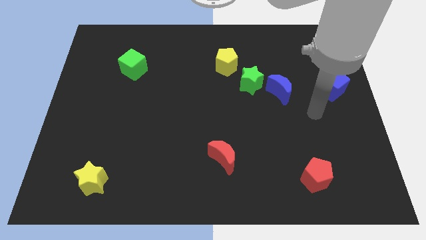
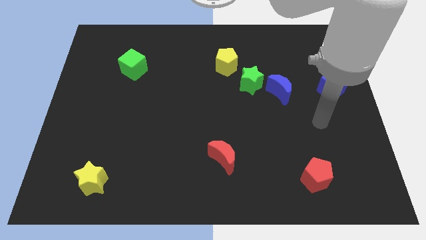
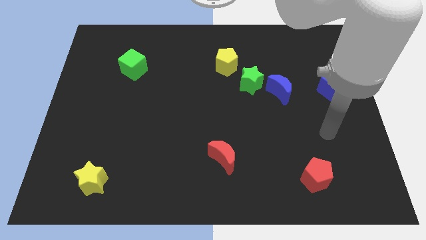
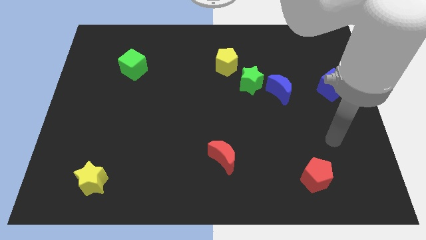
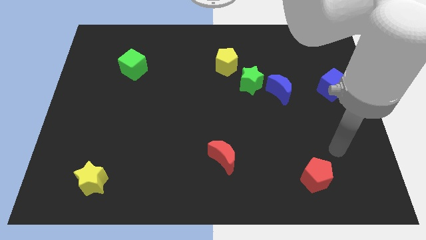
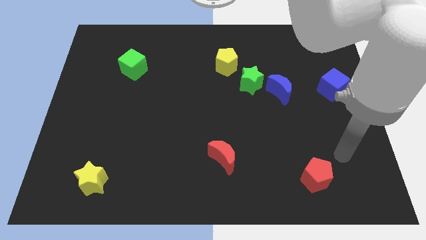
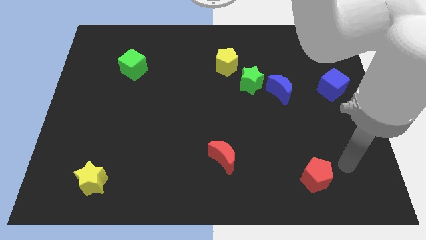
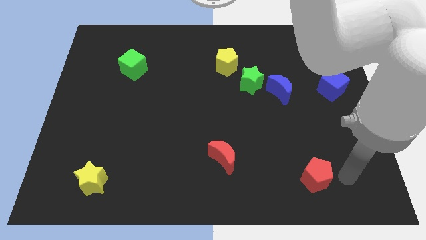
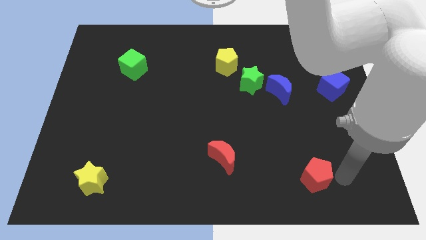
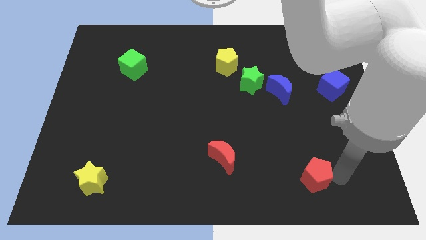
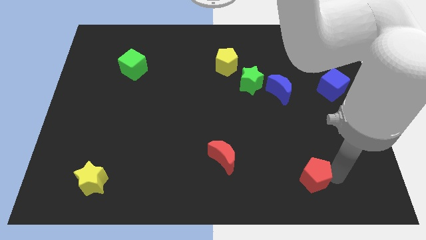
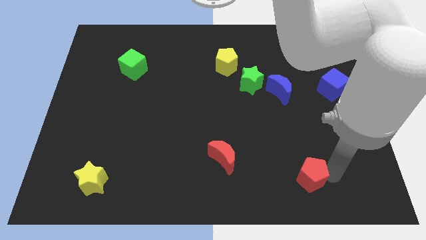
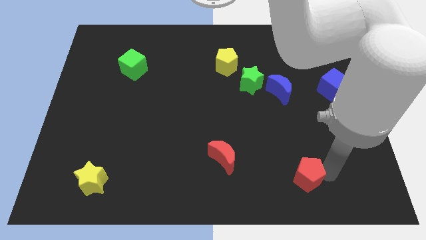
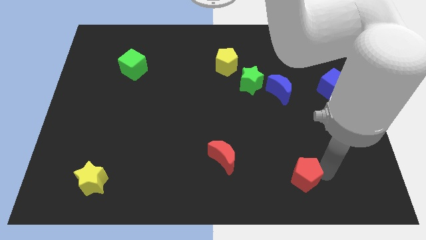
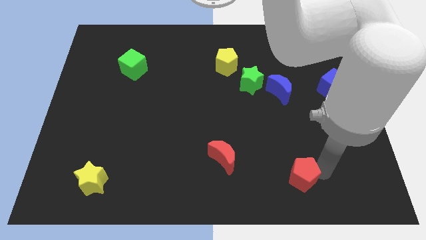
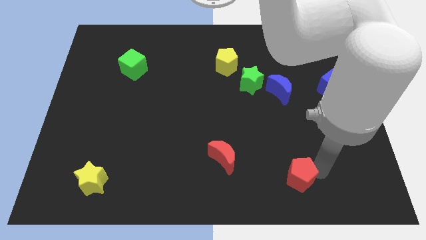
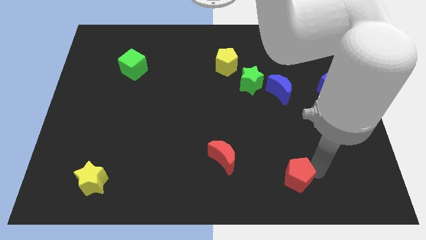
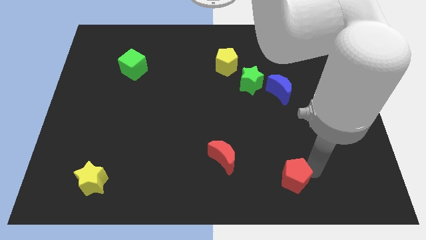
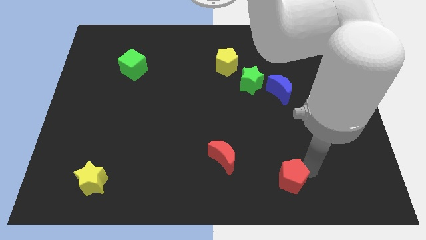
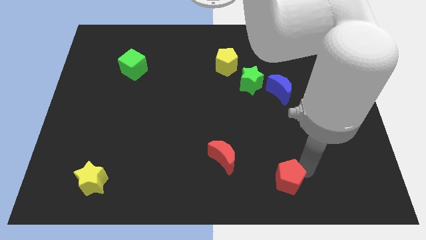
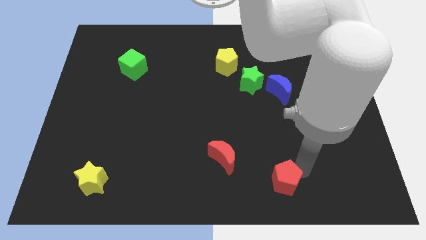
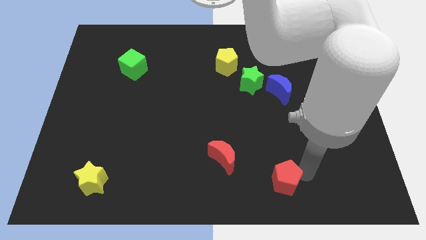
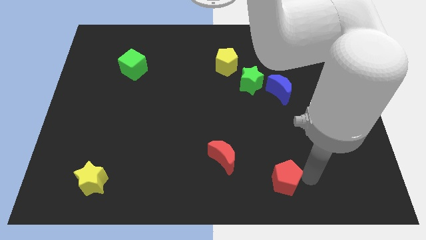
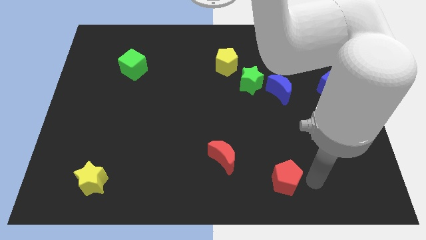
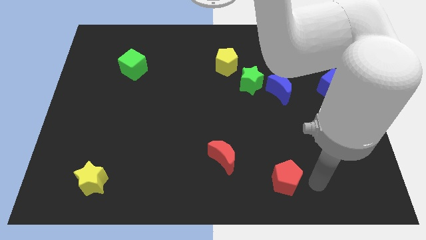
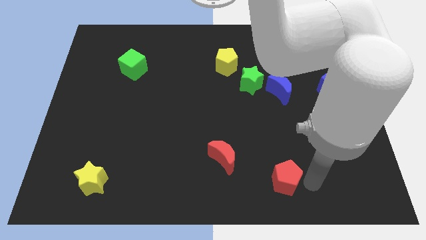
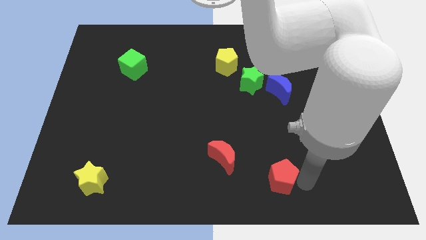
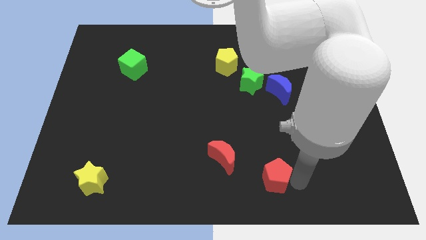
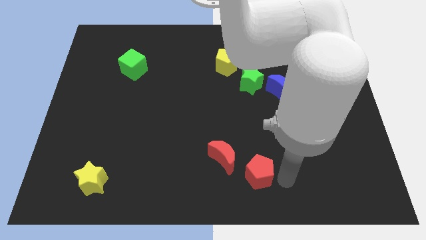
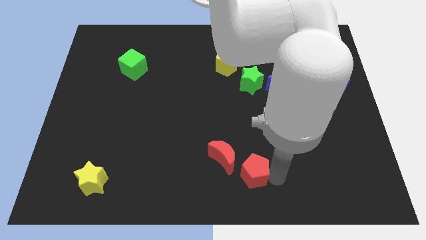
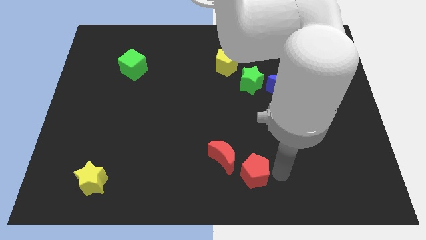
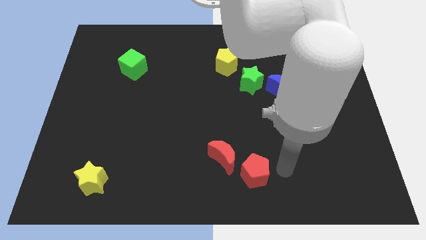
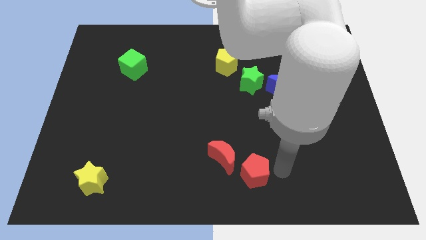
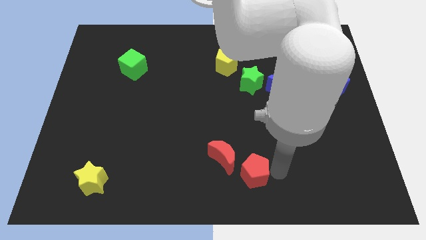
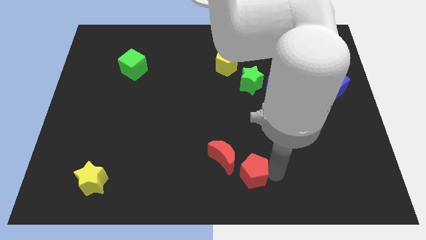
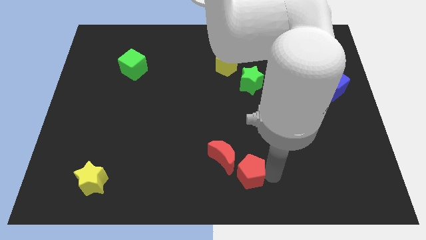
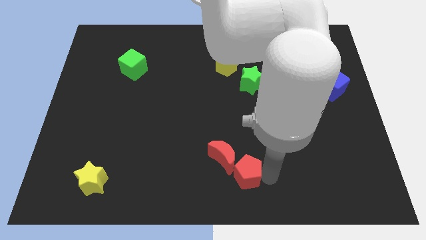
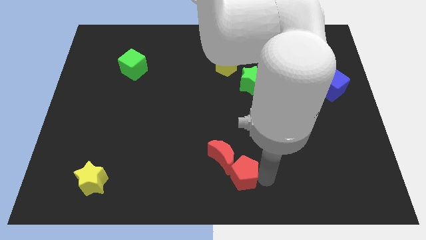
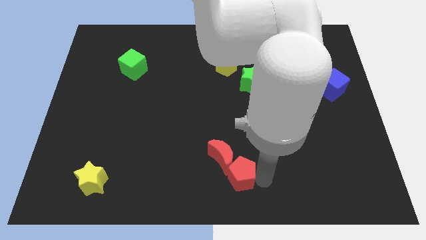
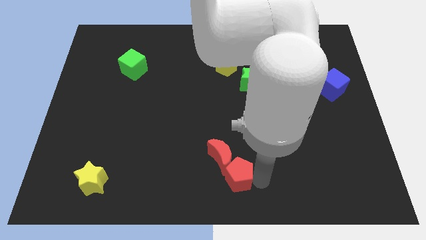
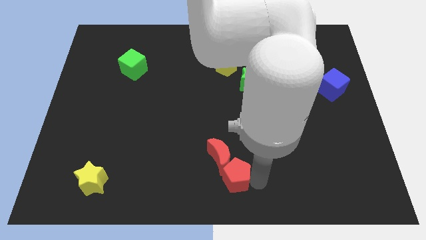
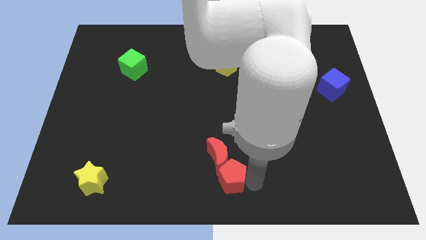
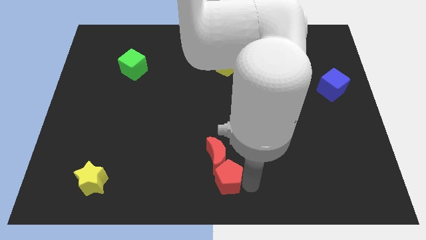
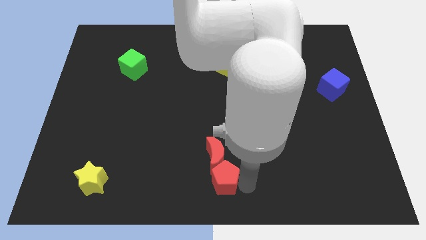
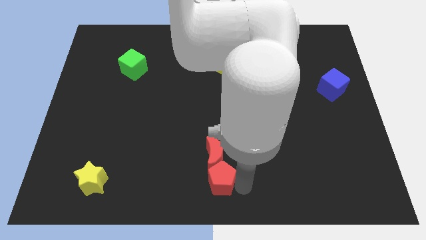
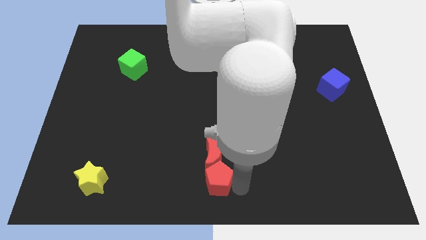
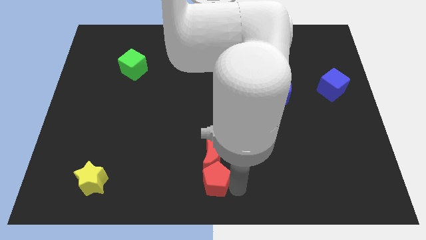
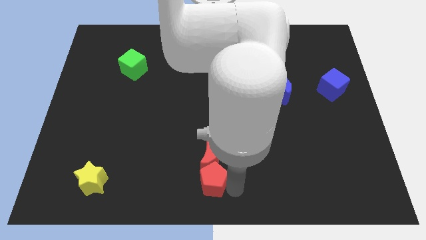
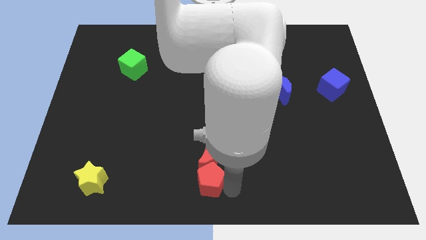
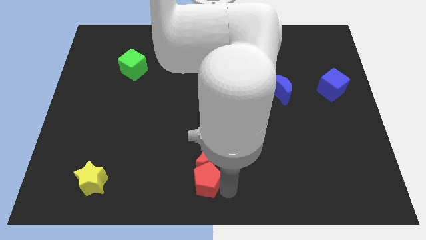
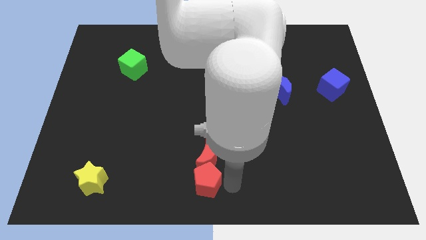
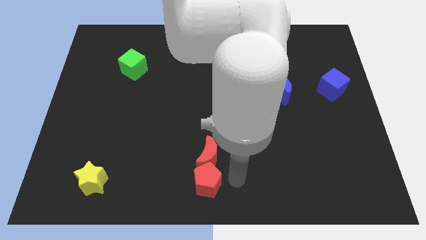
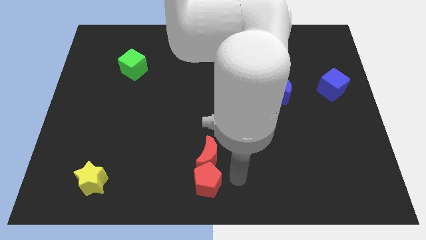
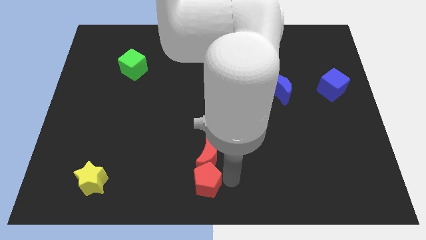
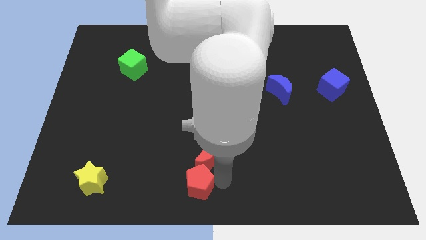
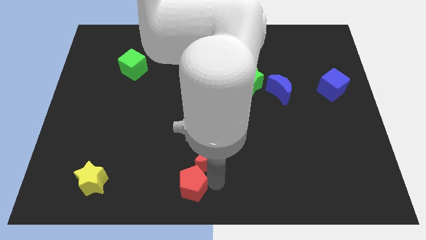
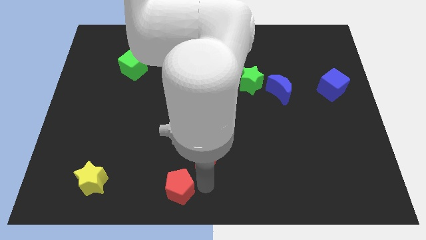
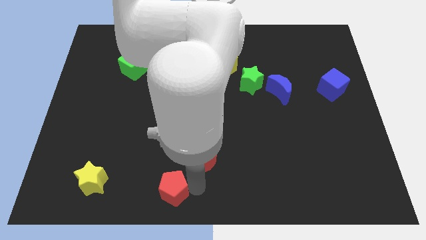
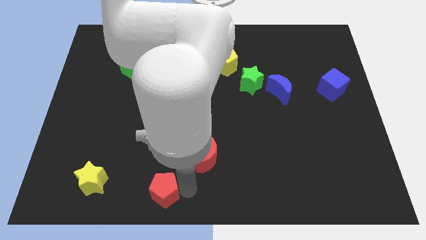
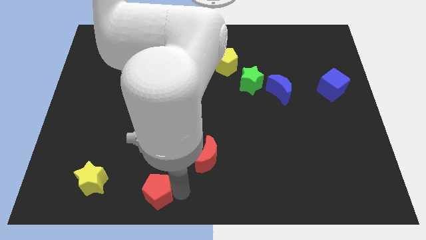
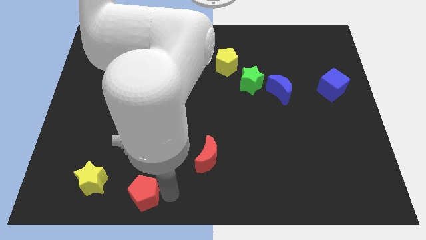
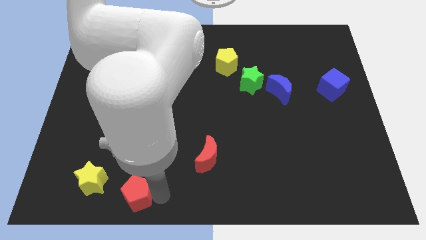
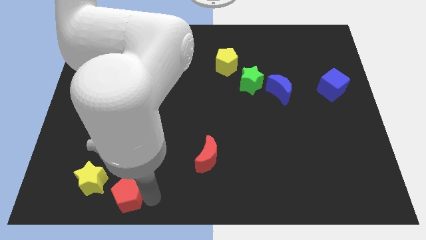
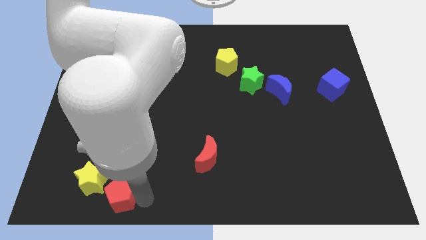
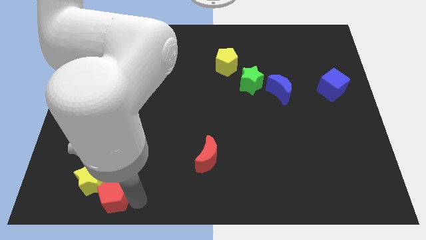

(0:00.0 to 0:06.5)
put the red pentagon towards the yellow star

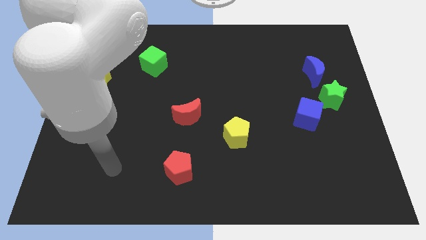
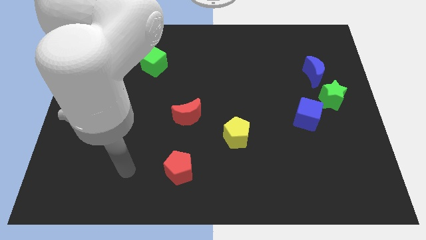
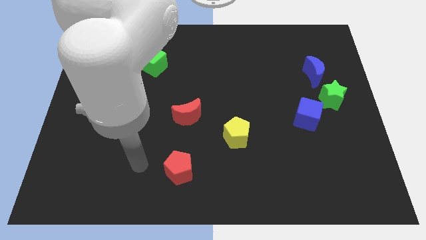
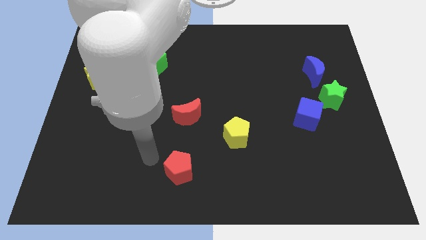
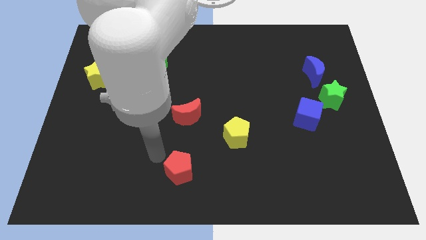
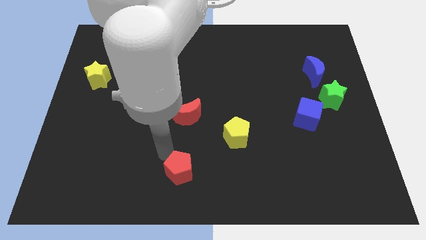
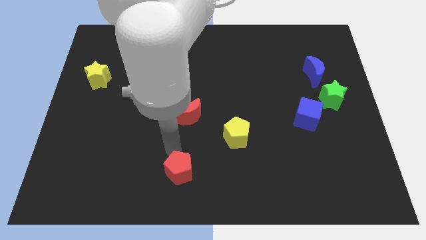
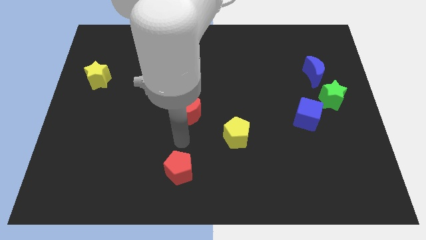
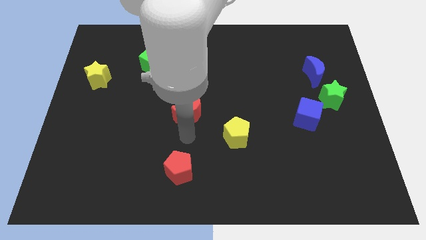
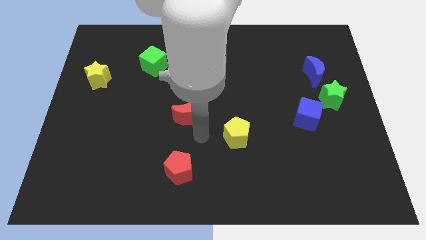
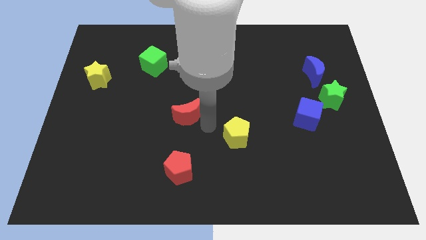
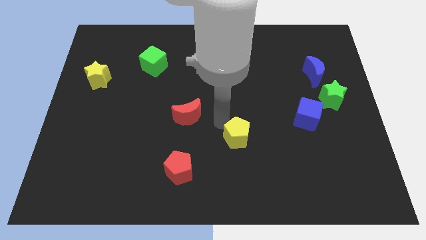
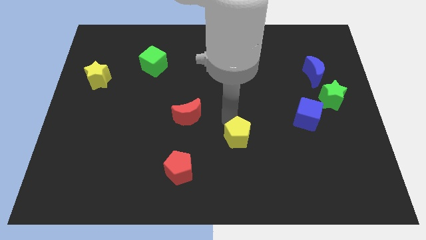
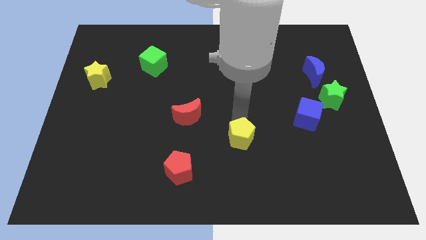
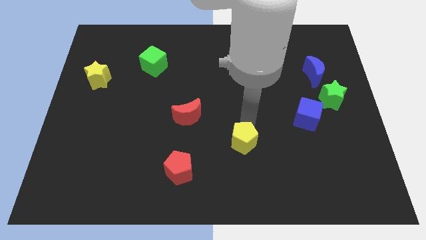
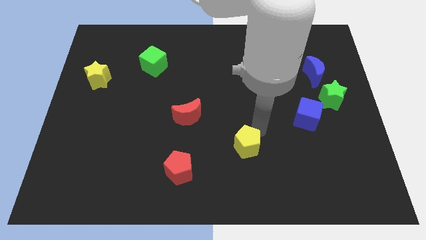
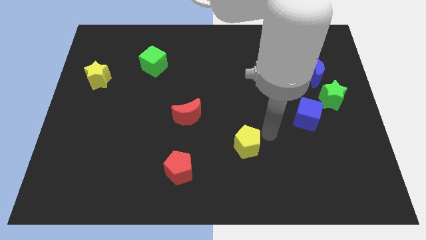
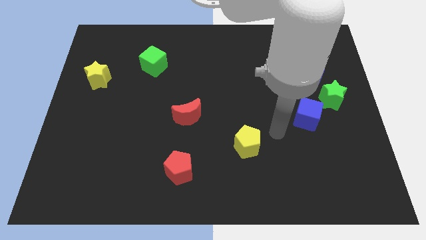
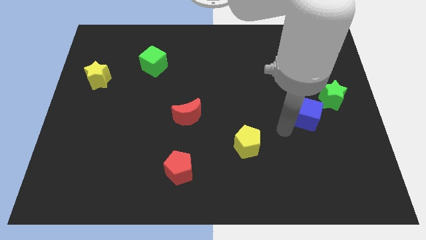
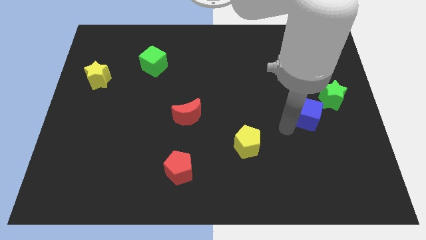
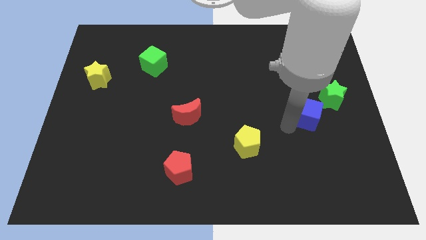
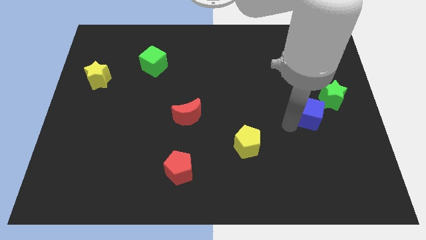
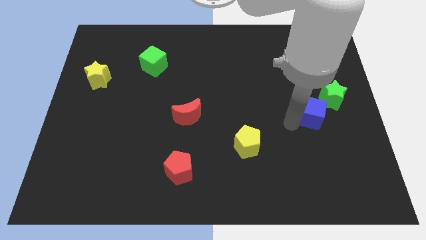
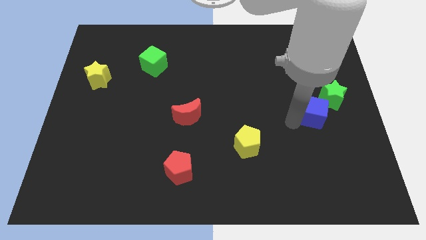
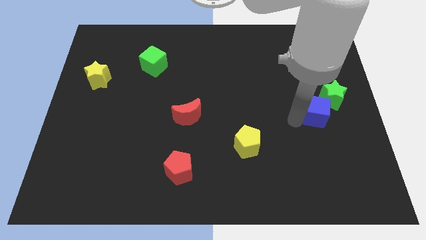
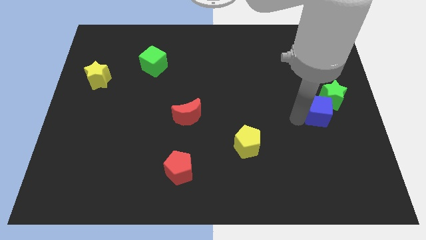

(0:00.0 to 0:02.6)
slide the blue cube close to the green star
